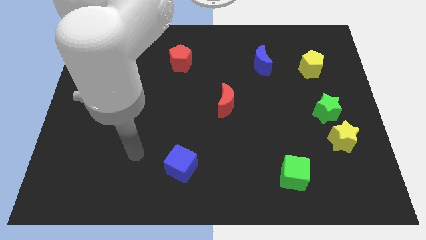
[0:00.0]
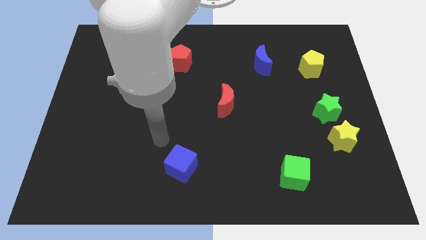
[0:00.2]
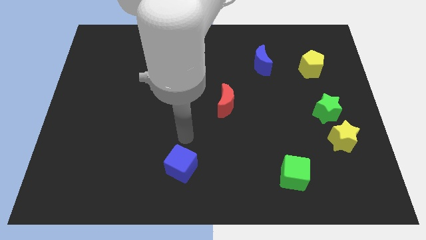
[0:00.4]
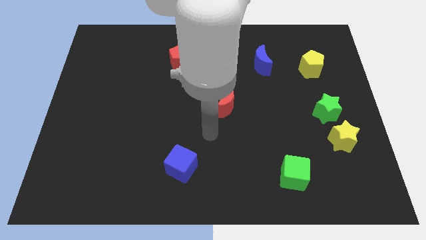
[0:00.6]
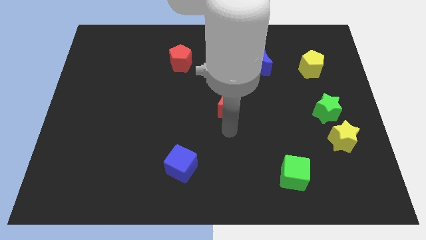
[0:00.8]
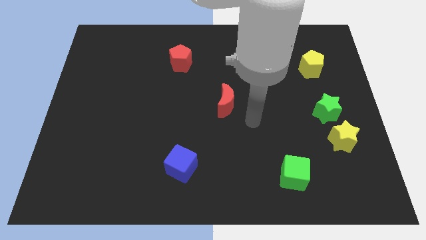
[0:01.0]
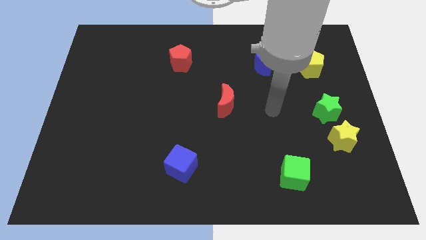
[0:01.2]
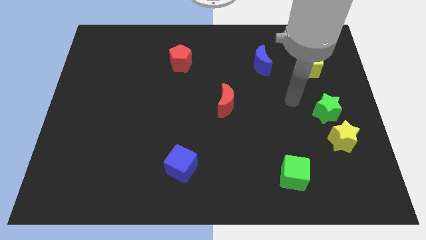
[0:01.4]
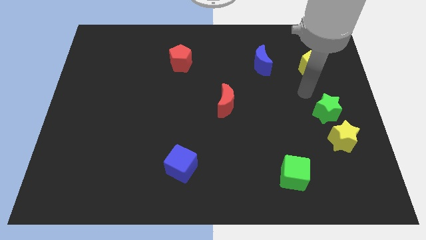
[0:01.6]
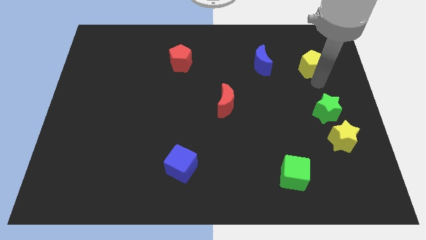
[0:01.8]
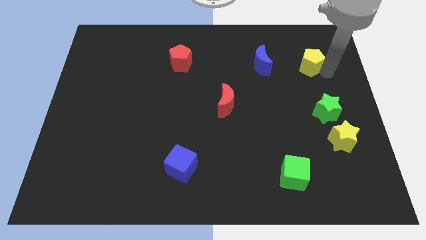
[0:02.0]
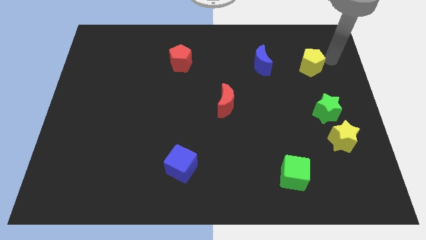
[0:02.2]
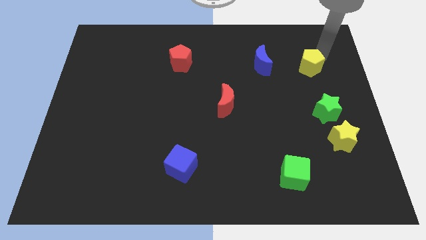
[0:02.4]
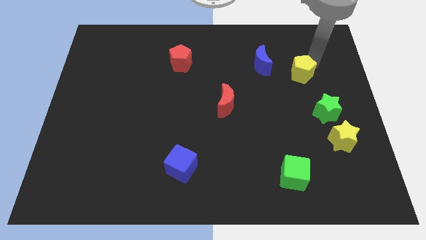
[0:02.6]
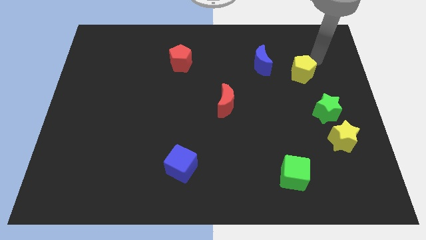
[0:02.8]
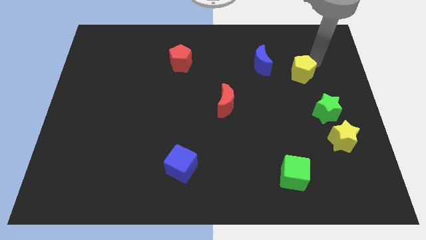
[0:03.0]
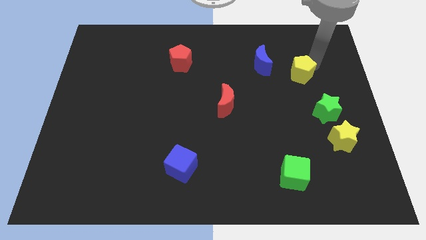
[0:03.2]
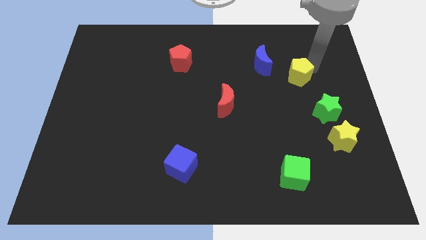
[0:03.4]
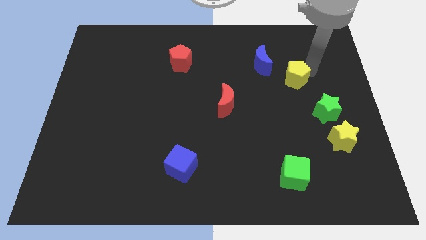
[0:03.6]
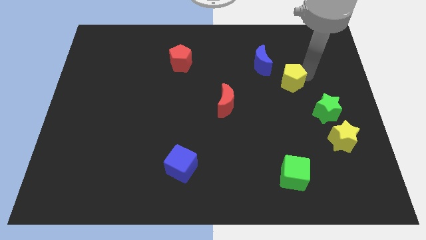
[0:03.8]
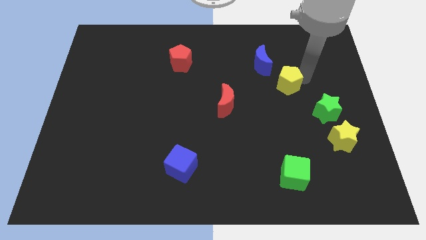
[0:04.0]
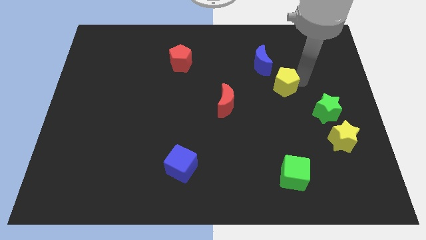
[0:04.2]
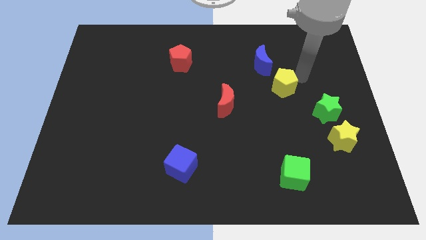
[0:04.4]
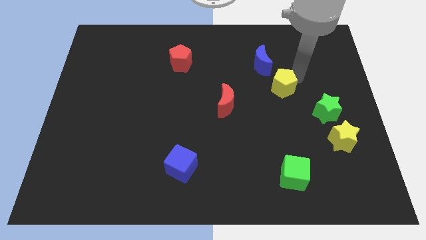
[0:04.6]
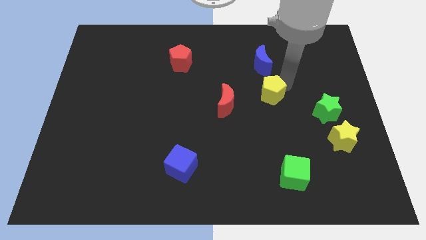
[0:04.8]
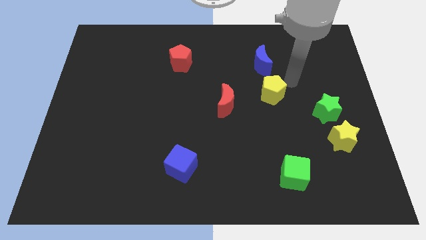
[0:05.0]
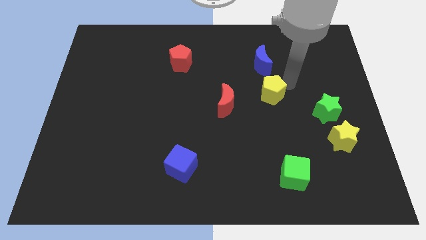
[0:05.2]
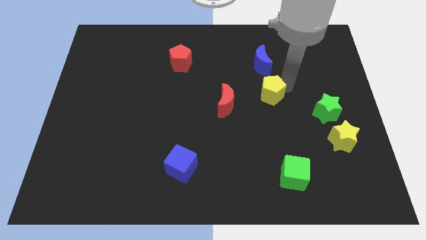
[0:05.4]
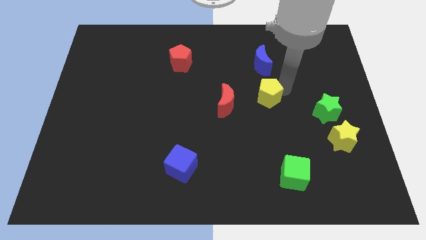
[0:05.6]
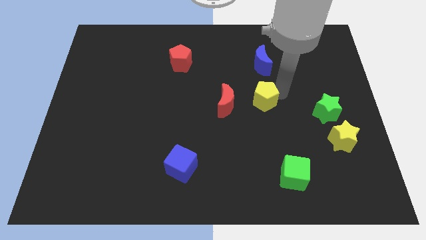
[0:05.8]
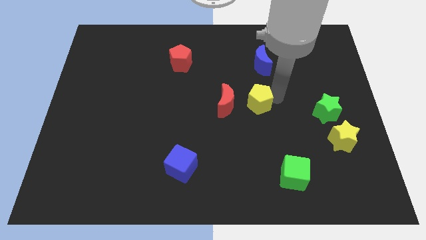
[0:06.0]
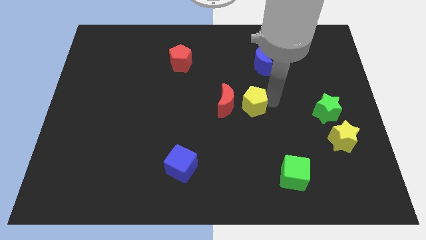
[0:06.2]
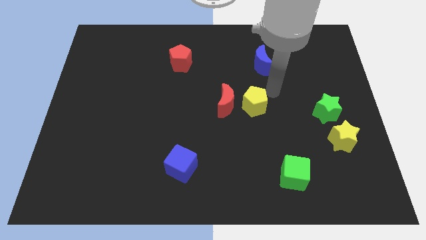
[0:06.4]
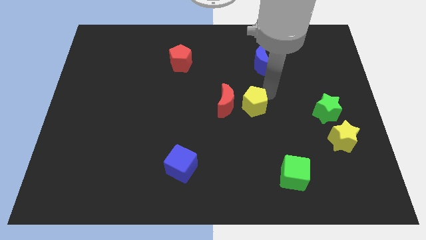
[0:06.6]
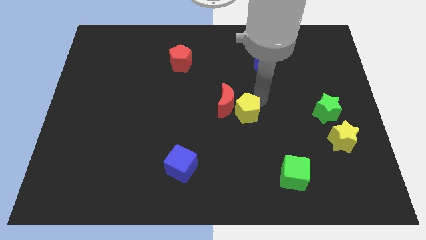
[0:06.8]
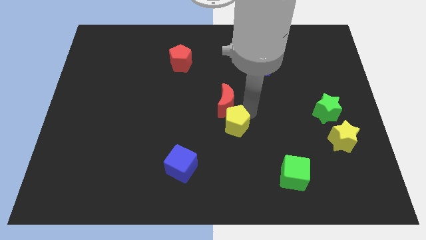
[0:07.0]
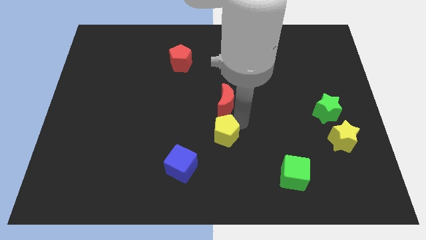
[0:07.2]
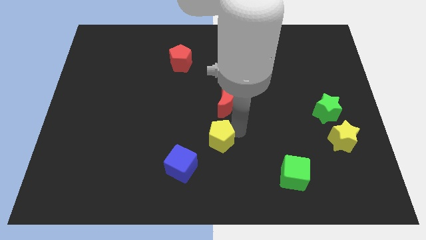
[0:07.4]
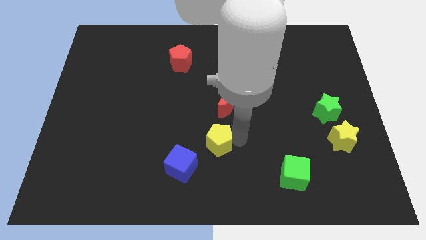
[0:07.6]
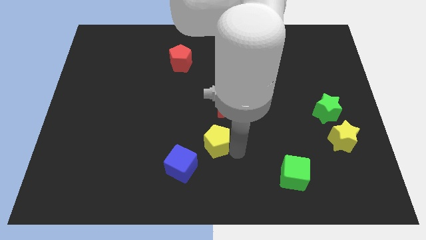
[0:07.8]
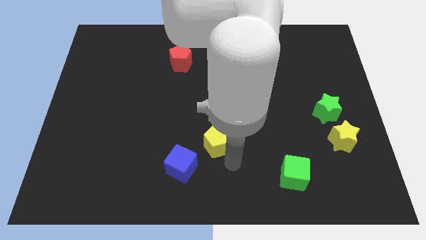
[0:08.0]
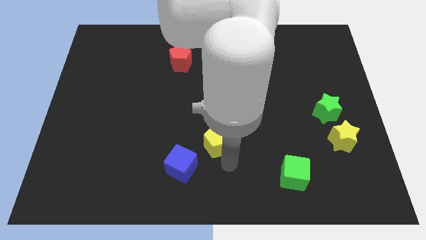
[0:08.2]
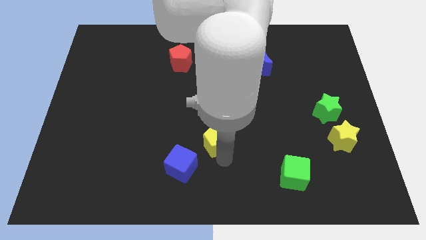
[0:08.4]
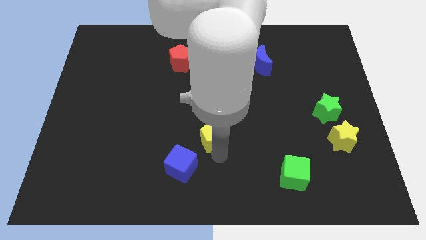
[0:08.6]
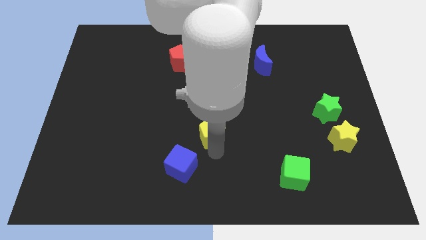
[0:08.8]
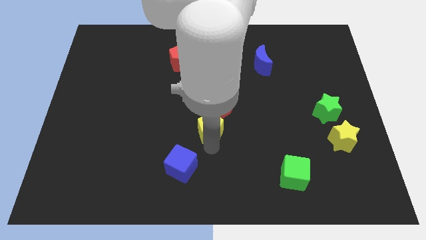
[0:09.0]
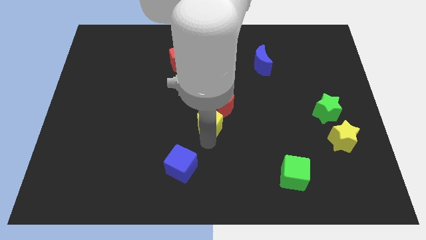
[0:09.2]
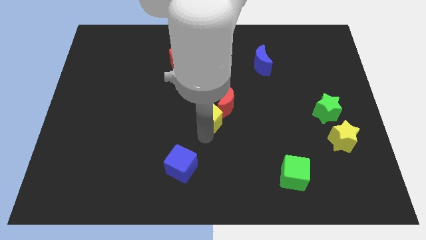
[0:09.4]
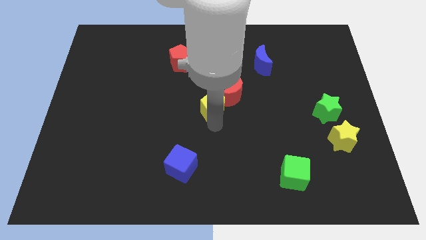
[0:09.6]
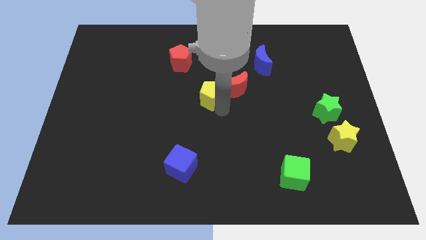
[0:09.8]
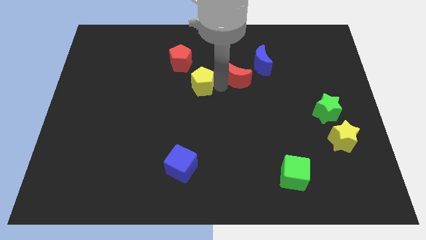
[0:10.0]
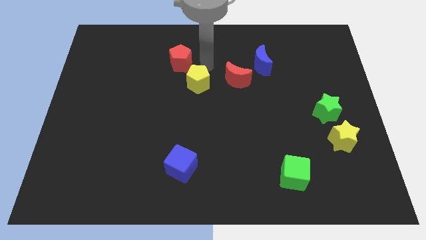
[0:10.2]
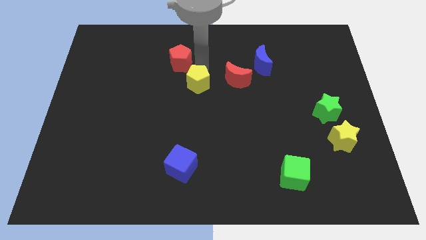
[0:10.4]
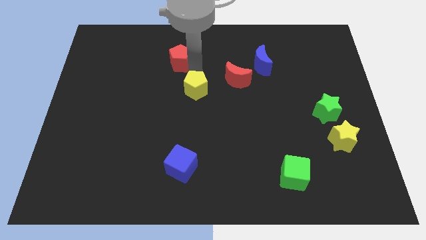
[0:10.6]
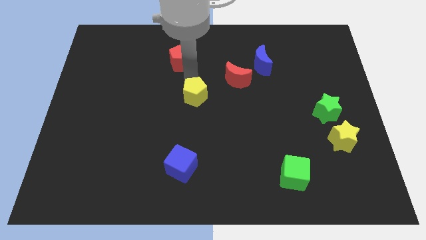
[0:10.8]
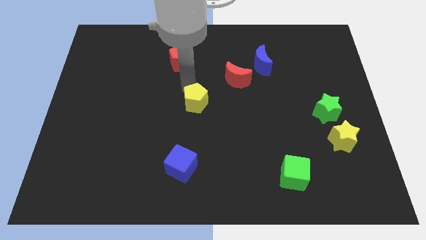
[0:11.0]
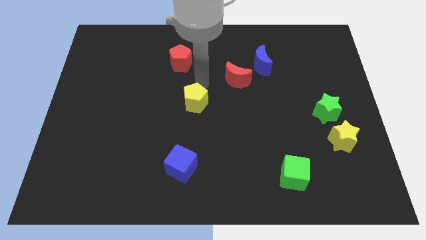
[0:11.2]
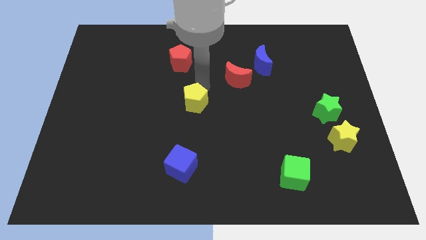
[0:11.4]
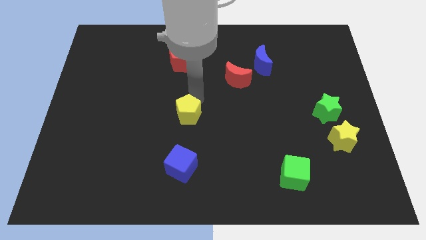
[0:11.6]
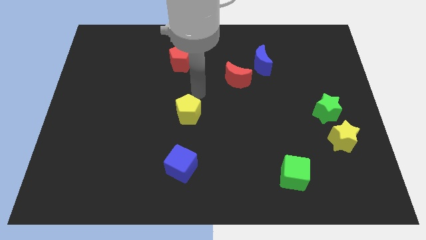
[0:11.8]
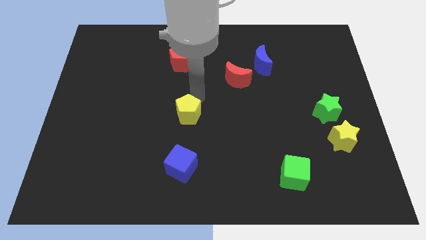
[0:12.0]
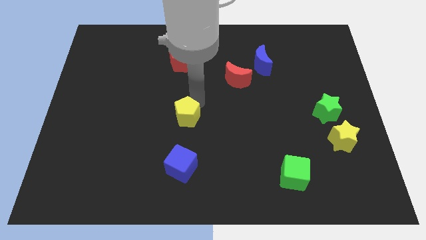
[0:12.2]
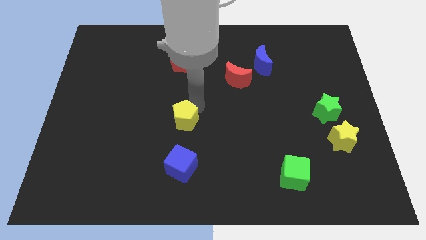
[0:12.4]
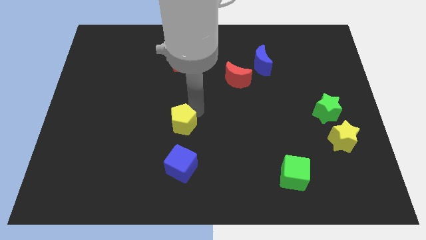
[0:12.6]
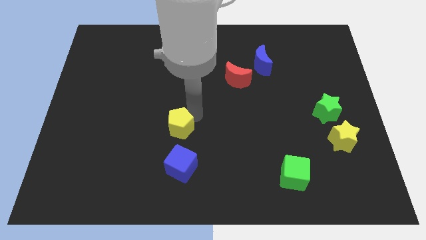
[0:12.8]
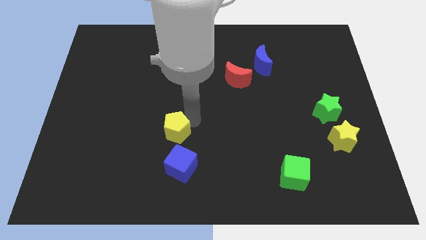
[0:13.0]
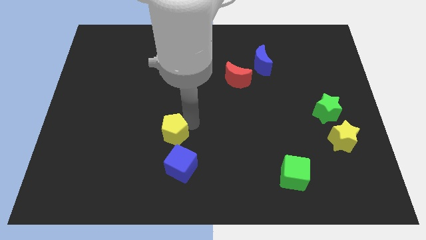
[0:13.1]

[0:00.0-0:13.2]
push the yellow pentagon diagonally up and to the left of the blue cube

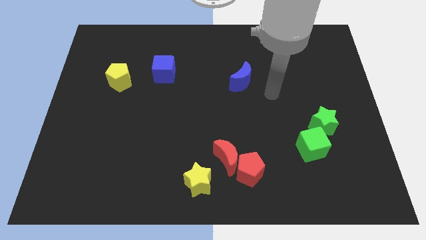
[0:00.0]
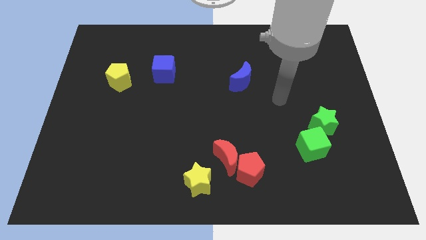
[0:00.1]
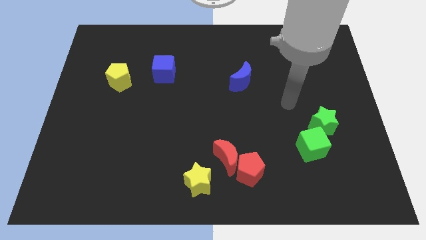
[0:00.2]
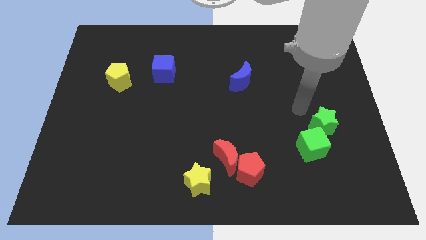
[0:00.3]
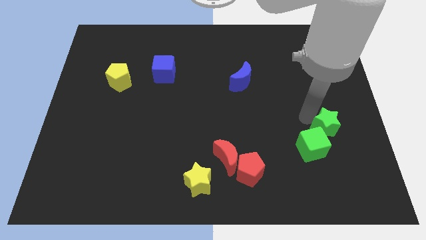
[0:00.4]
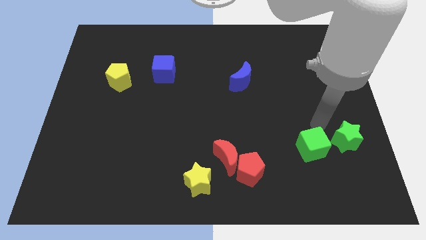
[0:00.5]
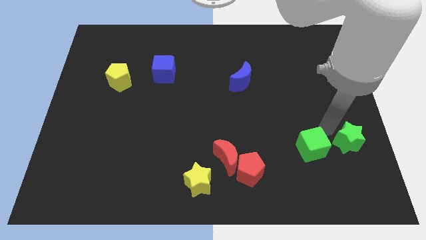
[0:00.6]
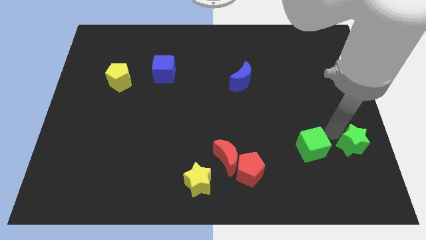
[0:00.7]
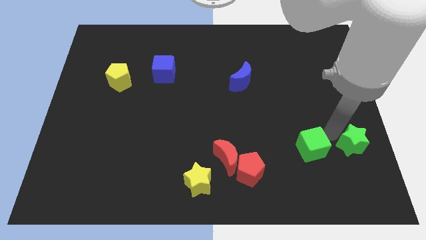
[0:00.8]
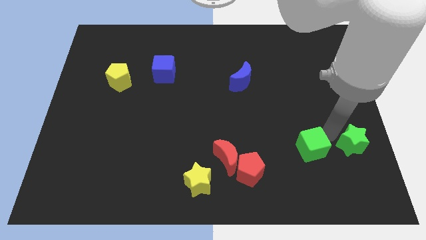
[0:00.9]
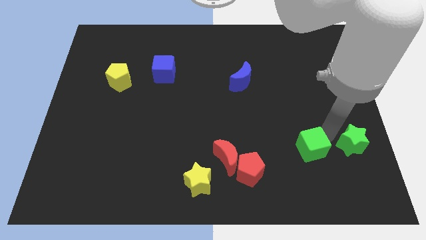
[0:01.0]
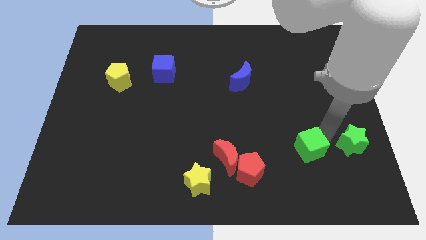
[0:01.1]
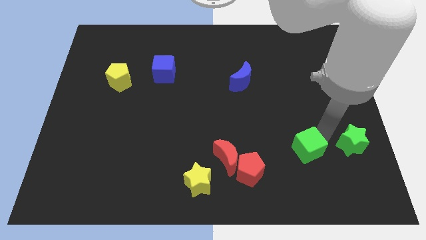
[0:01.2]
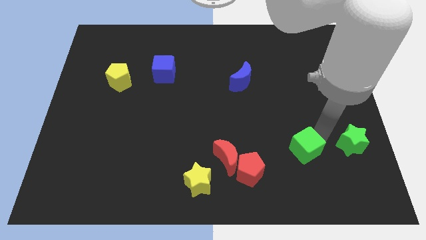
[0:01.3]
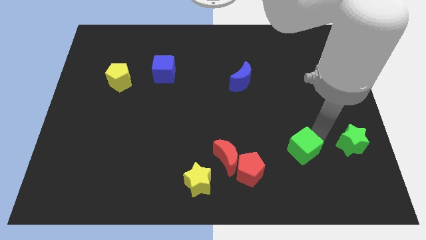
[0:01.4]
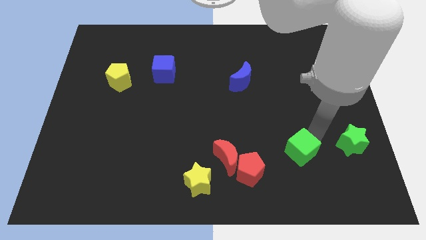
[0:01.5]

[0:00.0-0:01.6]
move the green cube to the right of the red moon
